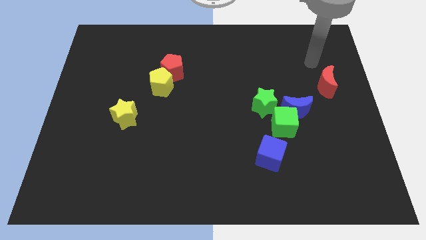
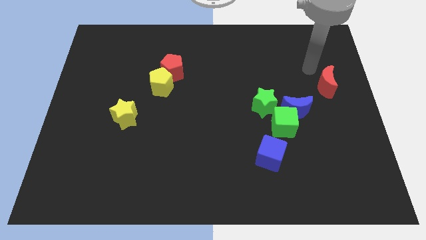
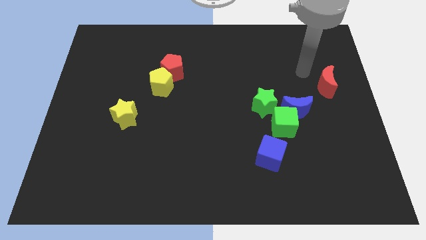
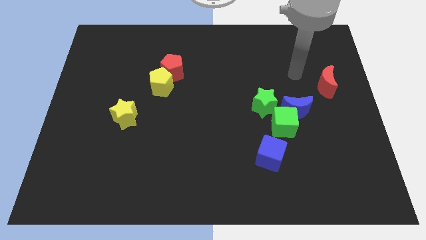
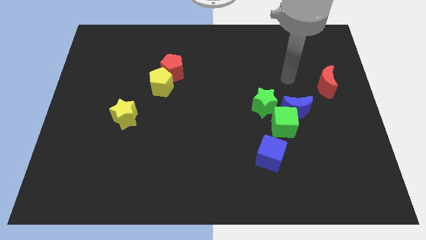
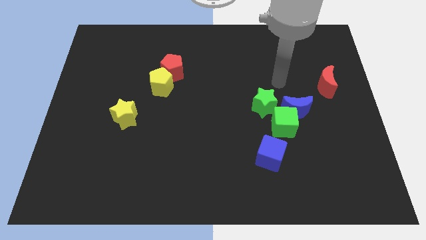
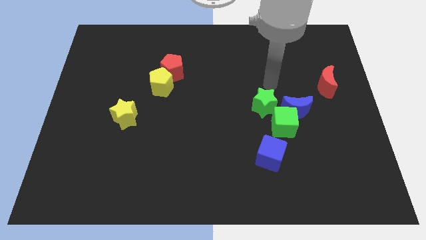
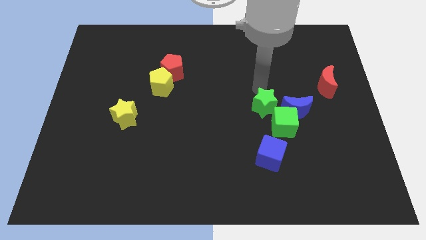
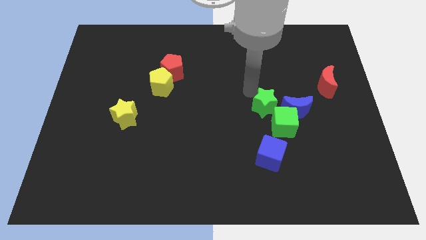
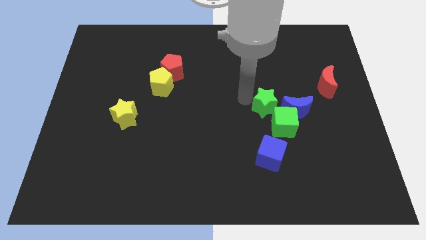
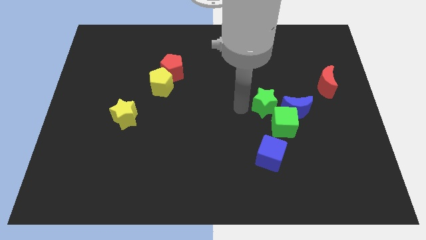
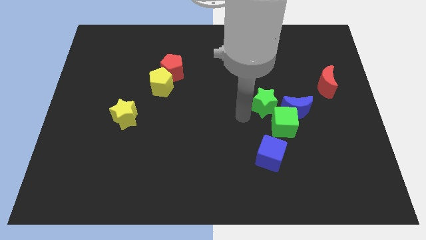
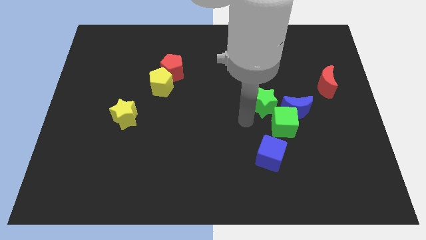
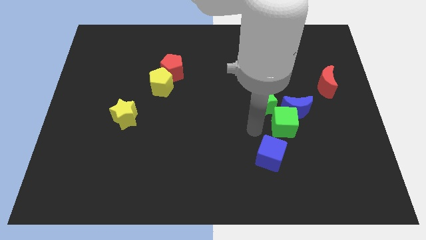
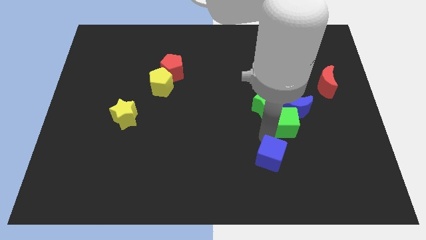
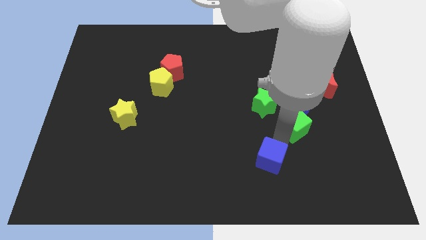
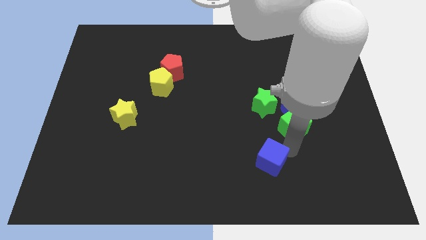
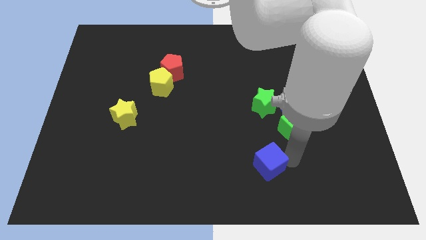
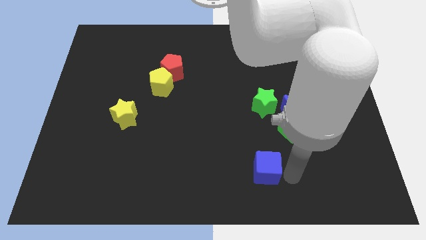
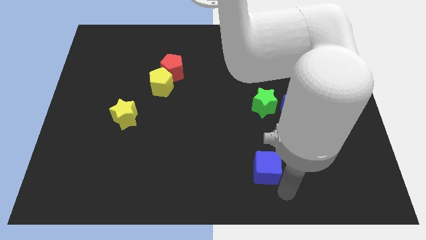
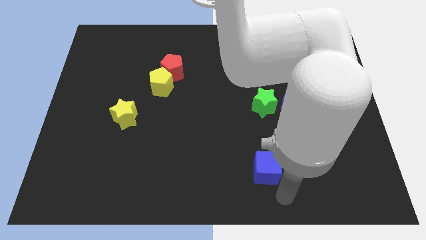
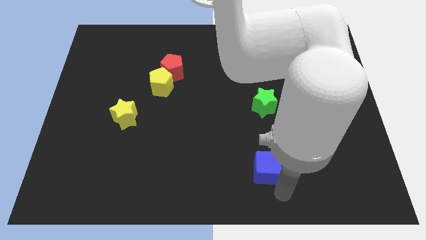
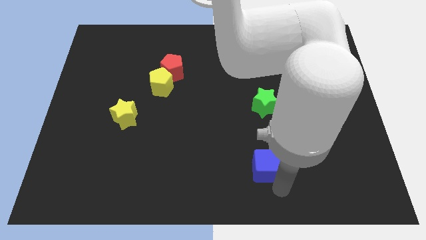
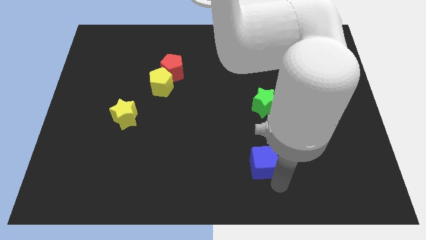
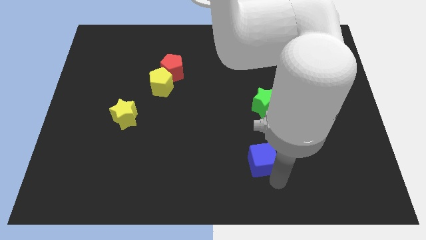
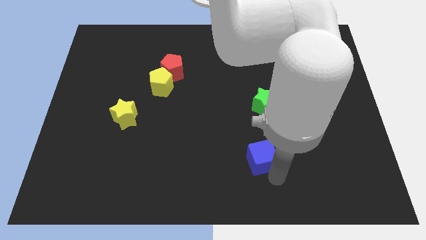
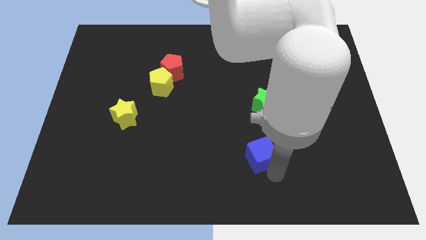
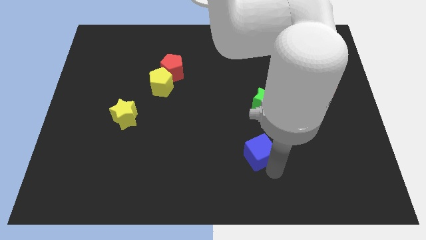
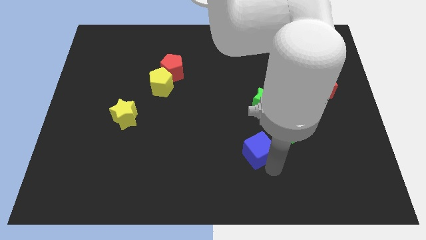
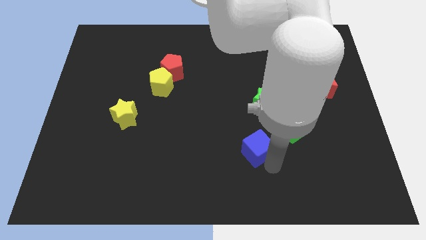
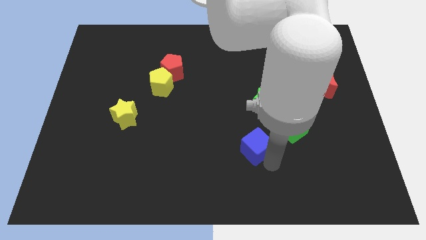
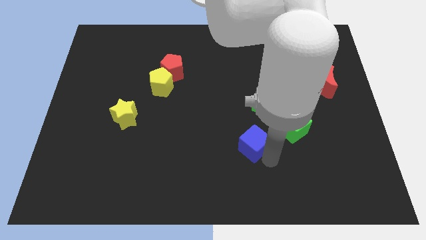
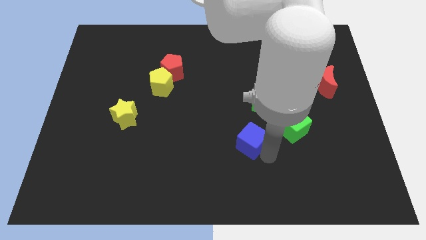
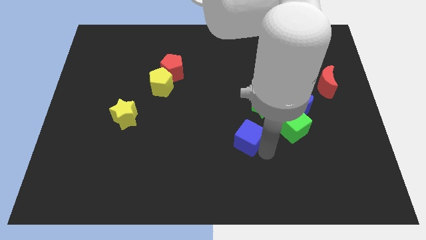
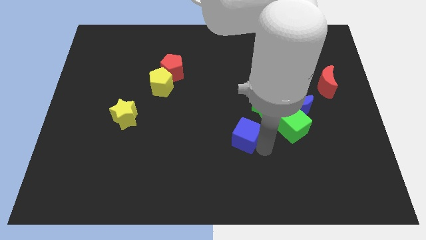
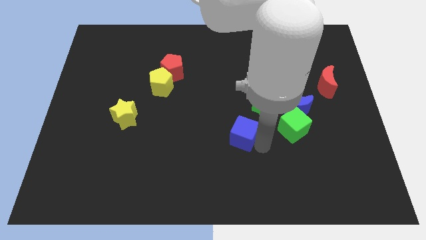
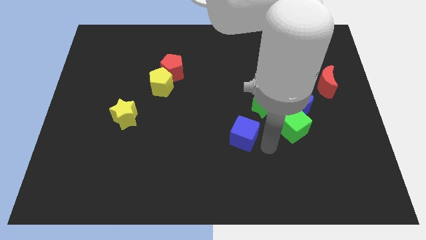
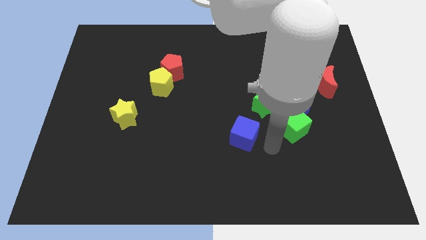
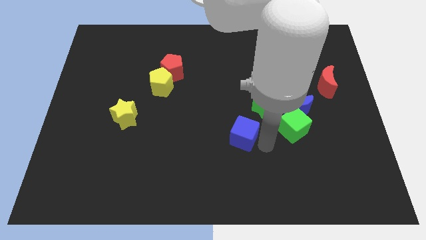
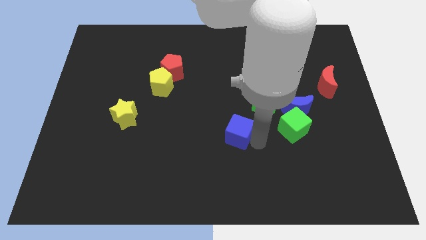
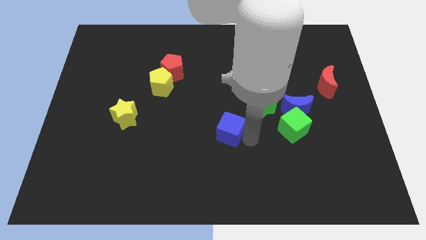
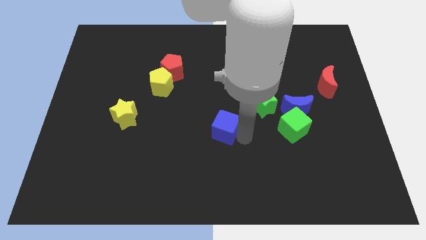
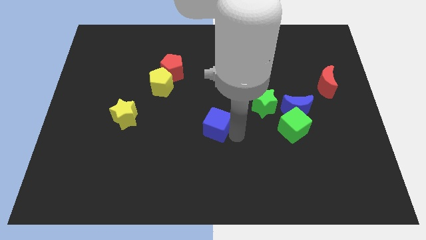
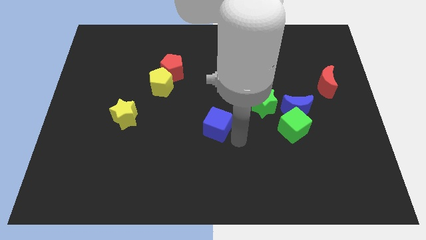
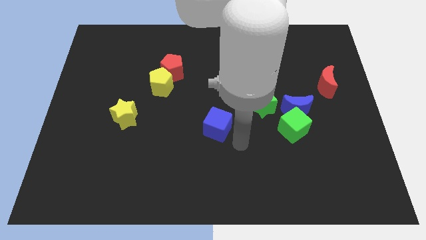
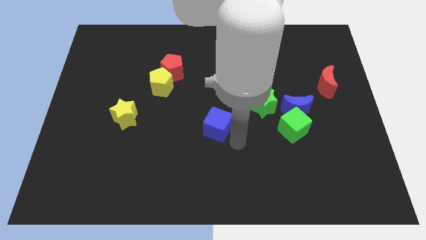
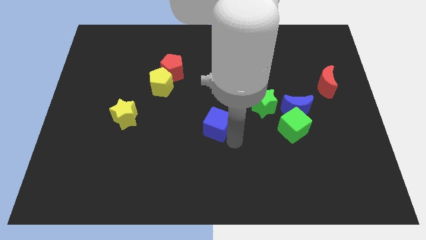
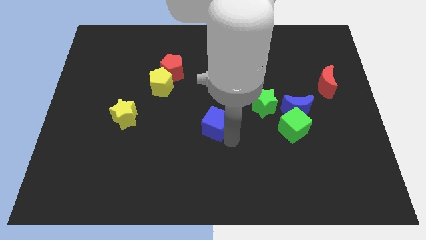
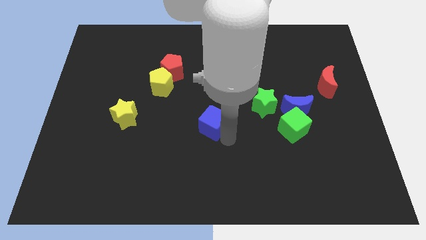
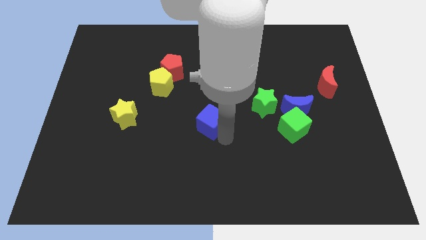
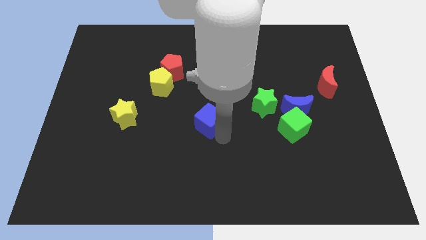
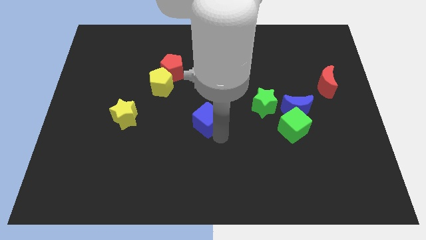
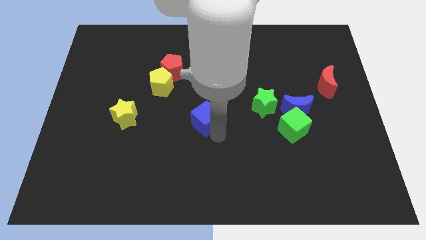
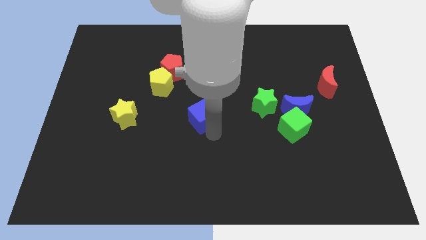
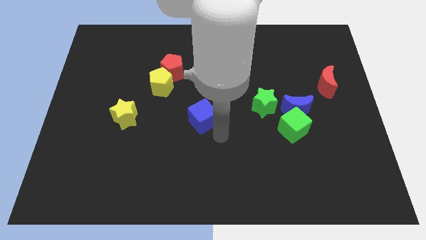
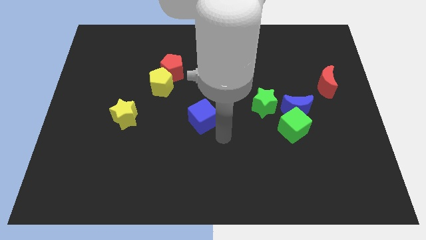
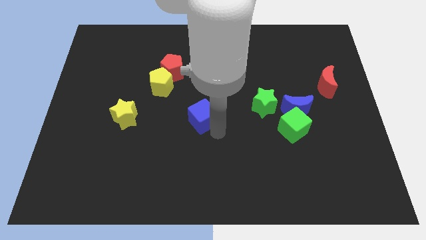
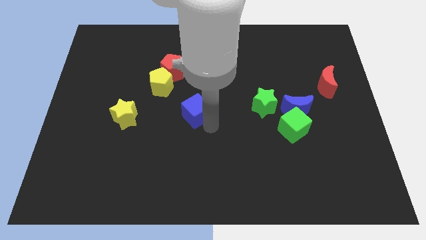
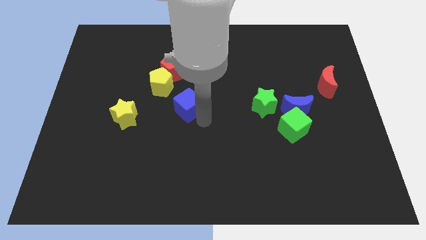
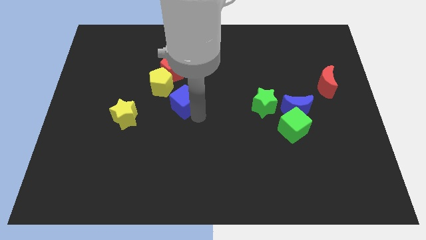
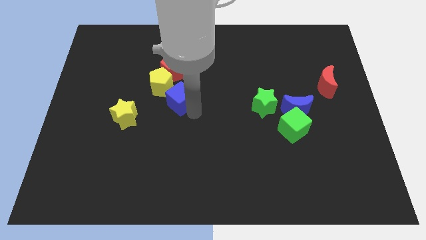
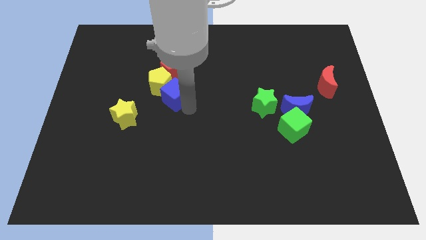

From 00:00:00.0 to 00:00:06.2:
move the blue cube close to the yellow pentagon

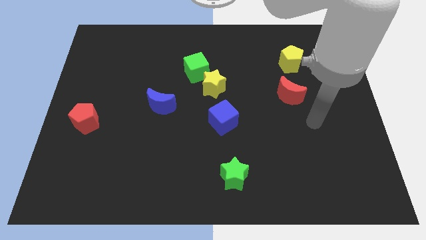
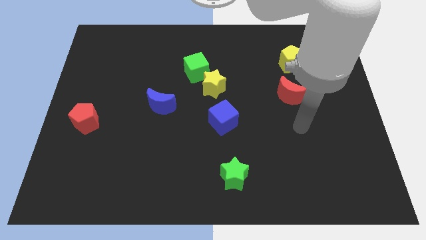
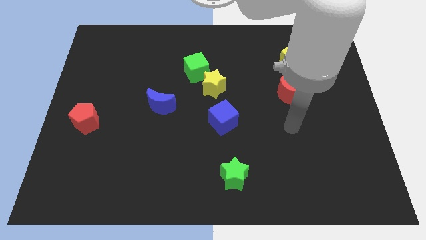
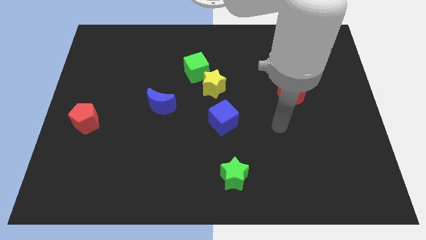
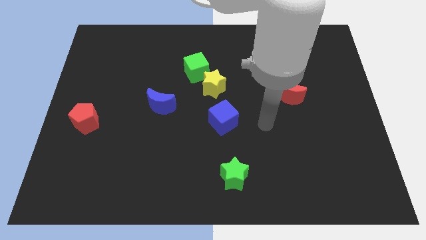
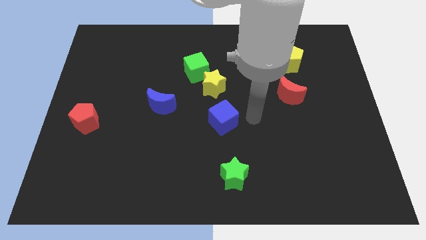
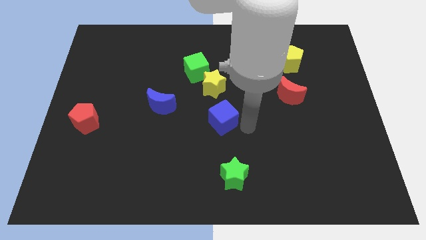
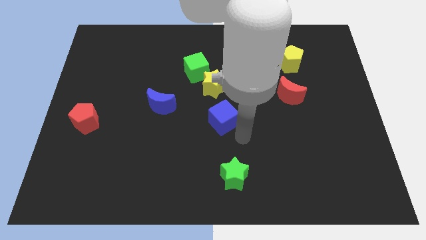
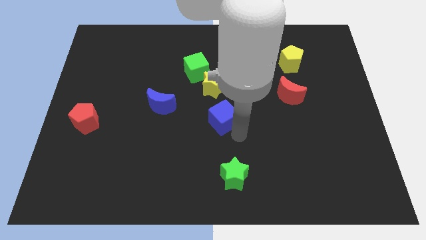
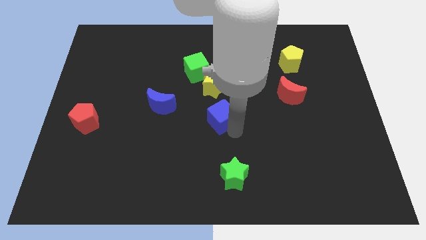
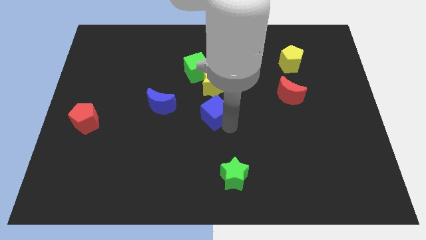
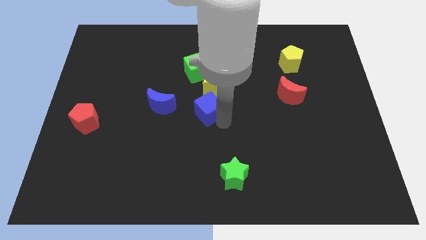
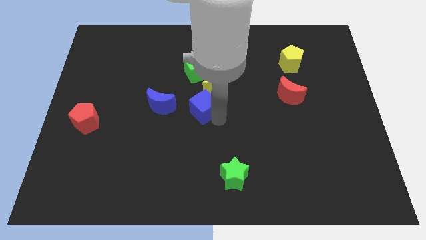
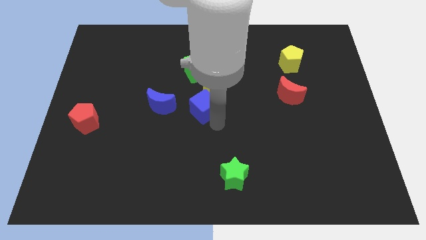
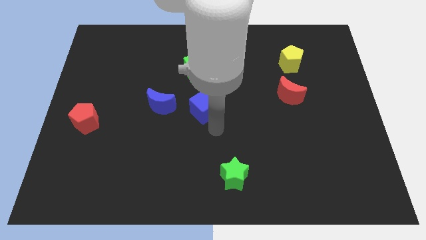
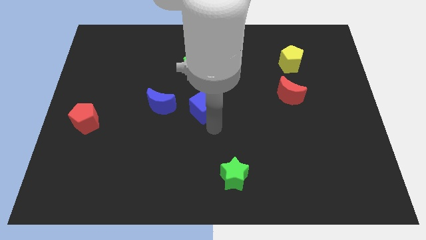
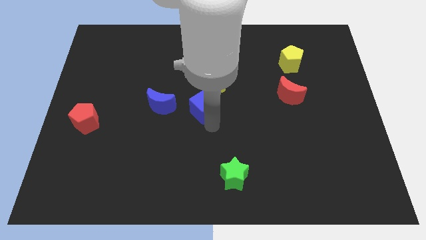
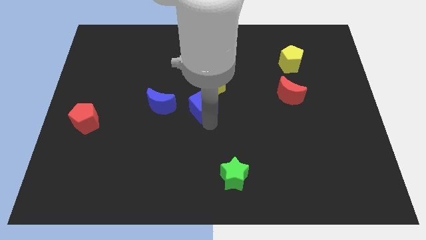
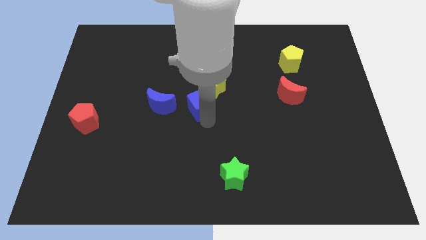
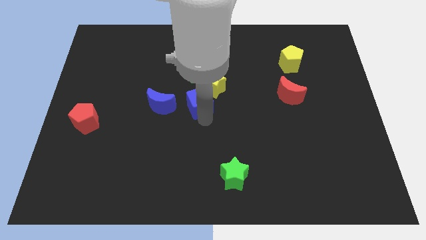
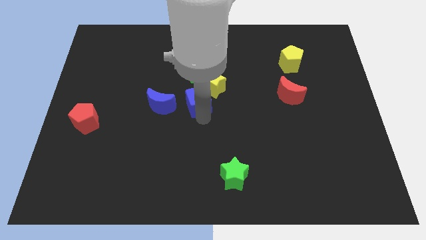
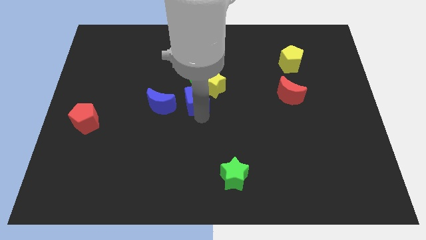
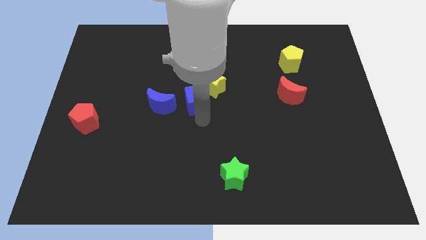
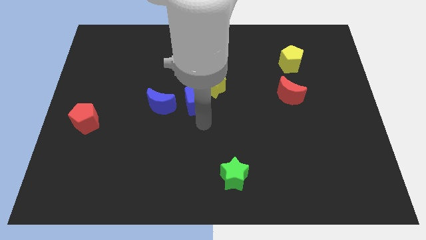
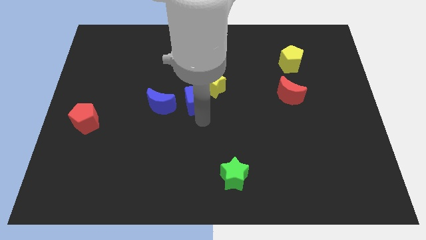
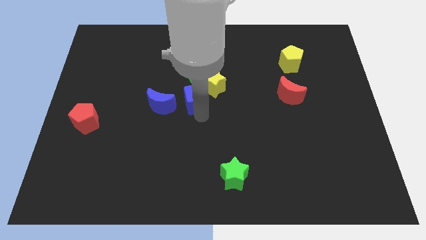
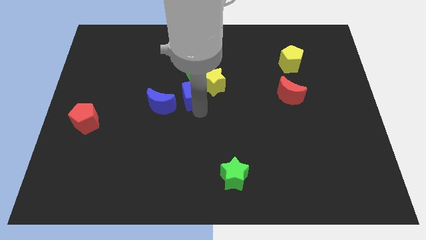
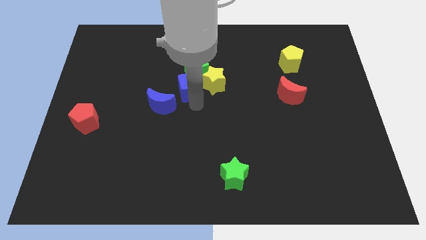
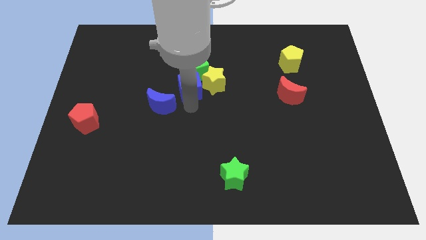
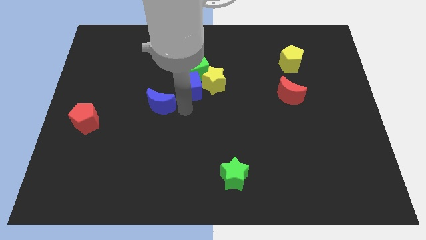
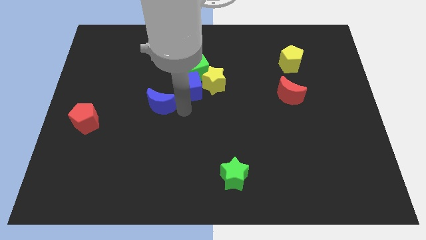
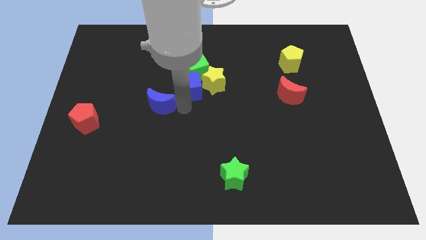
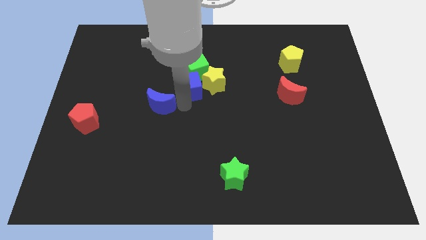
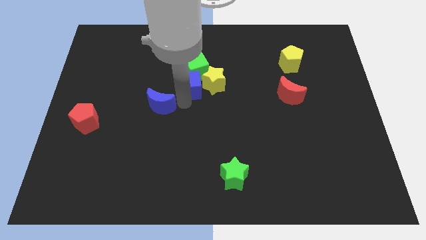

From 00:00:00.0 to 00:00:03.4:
move the blue cube towards the green cube
